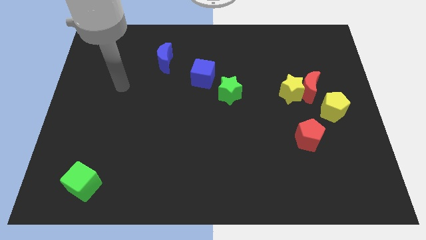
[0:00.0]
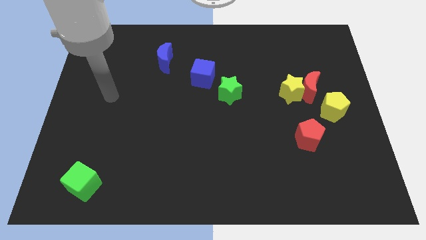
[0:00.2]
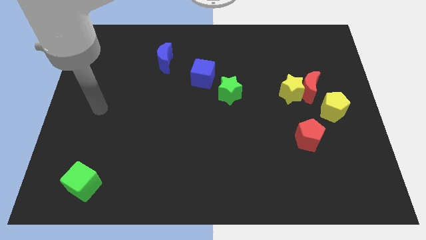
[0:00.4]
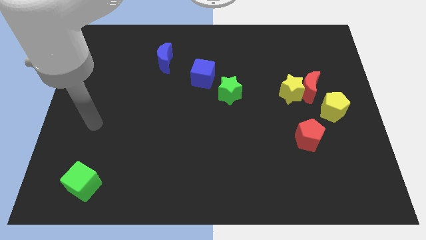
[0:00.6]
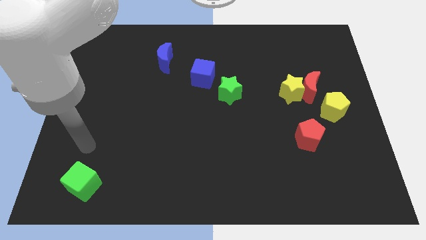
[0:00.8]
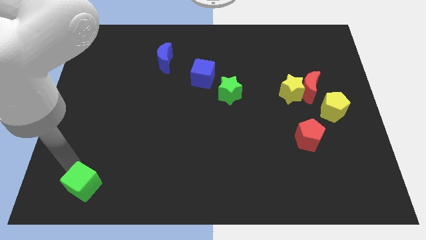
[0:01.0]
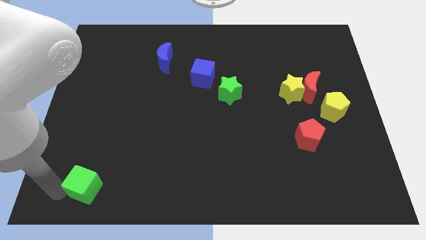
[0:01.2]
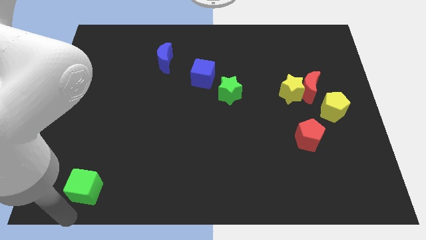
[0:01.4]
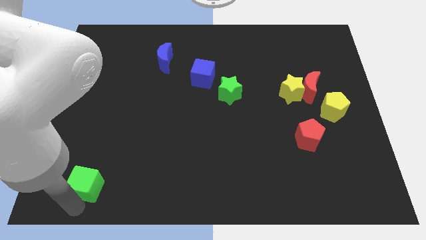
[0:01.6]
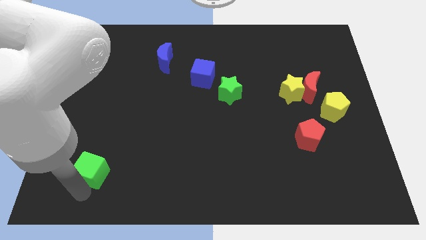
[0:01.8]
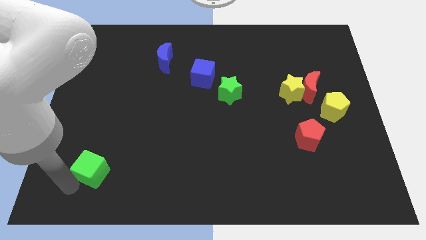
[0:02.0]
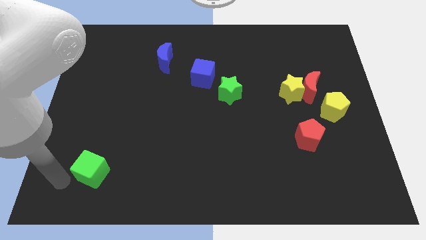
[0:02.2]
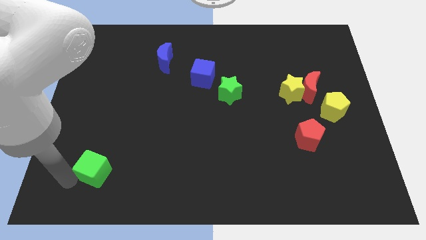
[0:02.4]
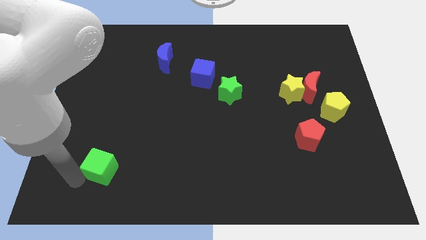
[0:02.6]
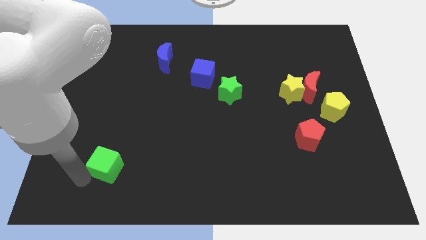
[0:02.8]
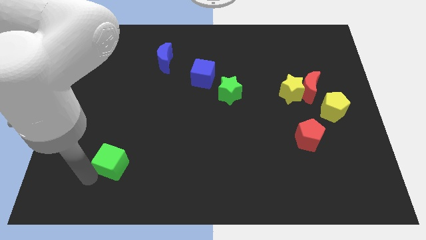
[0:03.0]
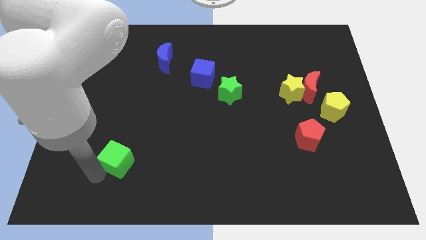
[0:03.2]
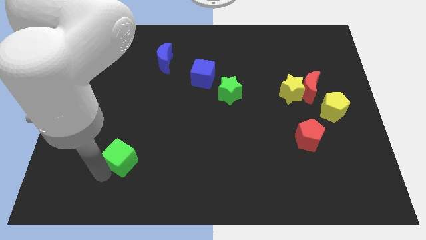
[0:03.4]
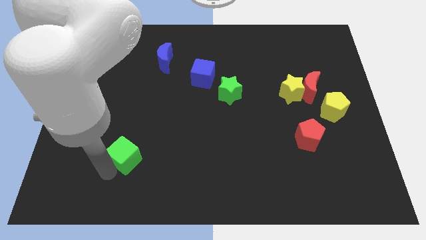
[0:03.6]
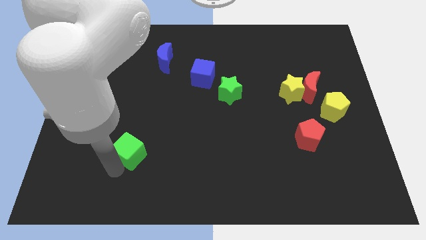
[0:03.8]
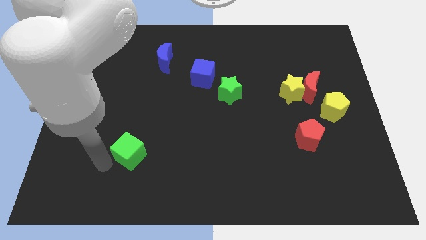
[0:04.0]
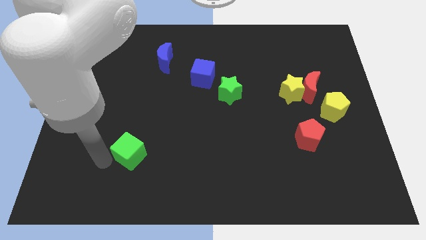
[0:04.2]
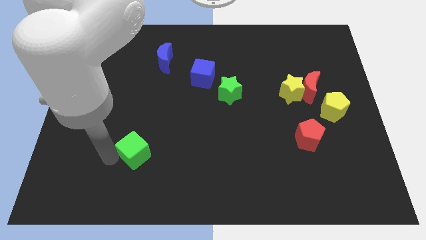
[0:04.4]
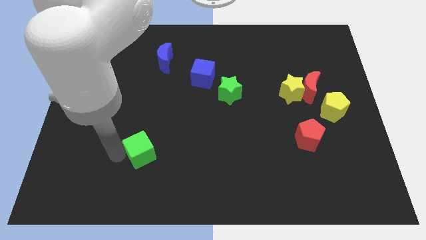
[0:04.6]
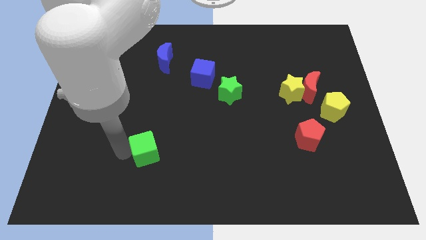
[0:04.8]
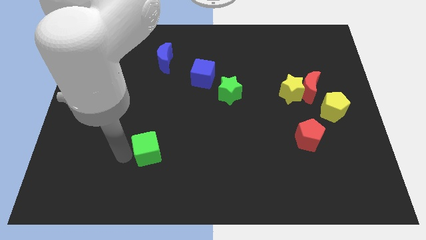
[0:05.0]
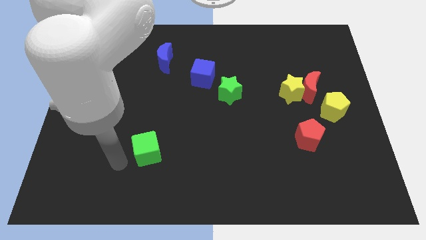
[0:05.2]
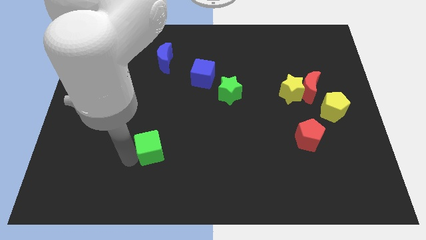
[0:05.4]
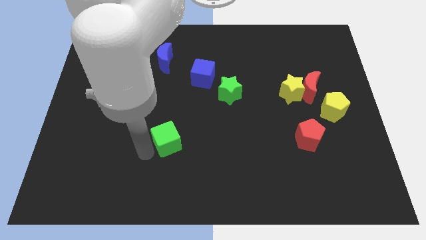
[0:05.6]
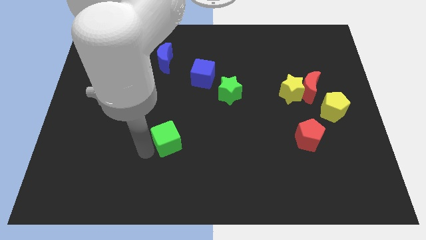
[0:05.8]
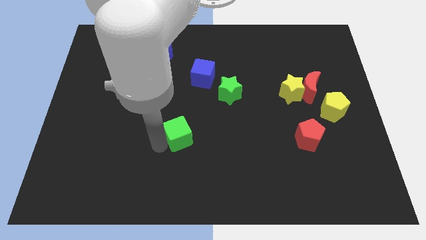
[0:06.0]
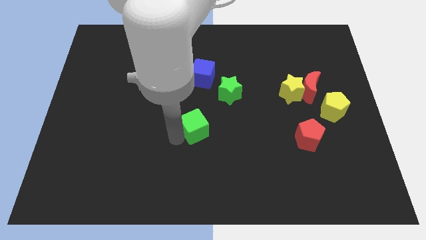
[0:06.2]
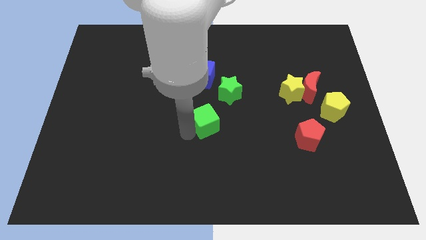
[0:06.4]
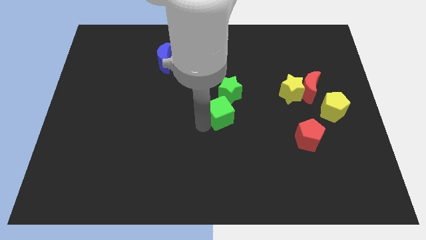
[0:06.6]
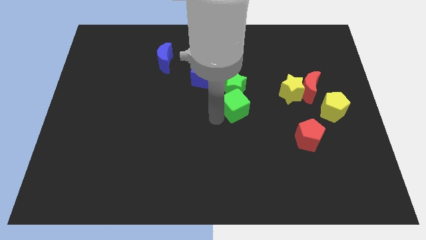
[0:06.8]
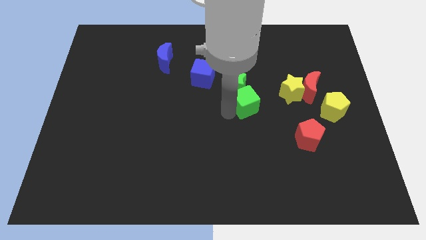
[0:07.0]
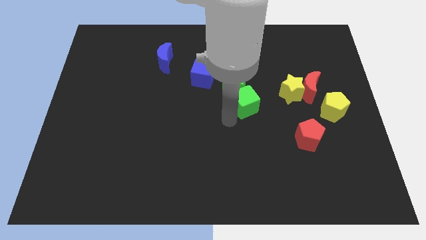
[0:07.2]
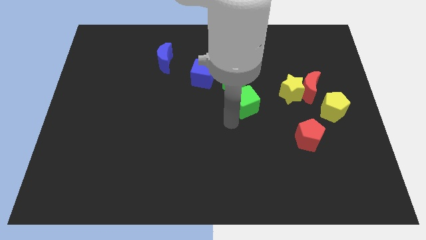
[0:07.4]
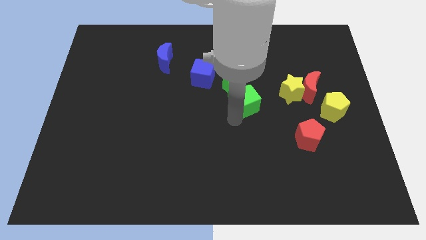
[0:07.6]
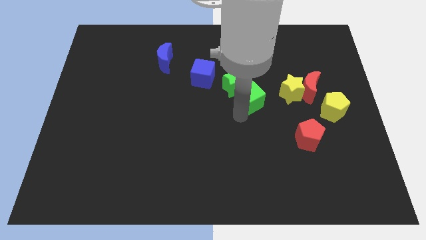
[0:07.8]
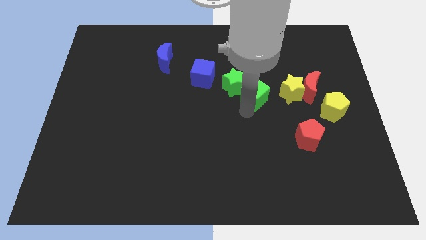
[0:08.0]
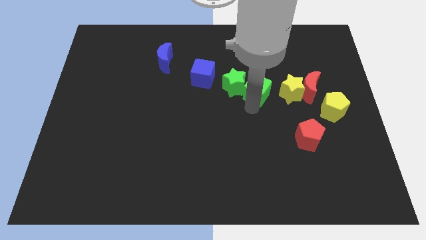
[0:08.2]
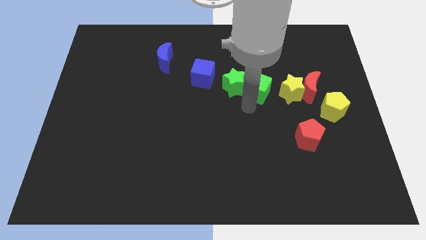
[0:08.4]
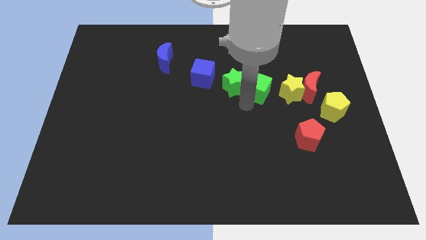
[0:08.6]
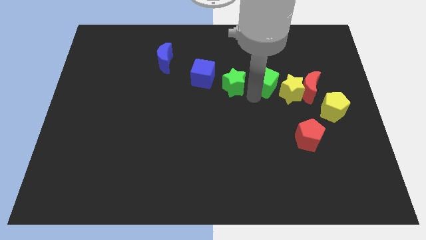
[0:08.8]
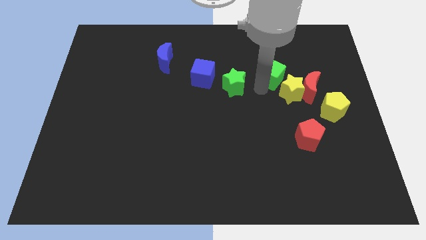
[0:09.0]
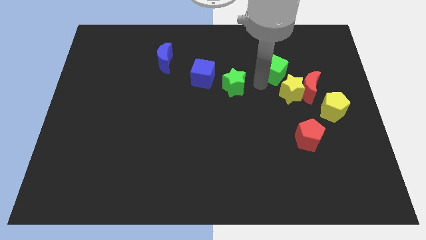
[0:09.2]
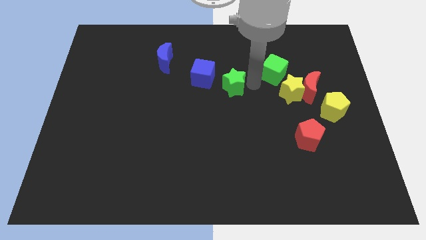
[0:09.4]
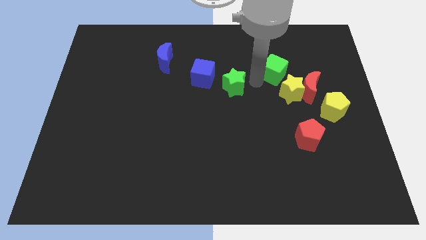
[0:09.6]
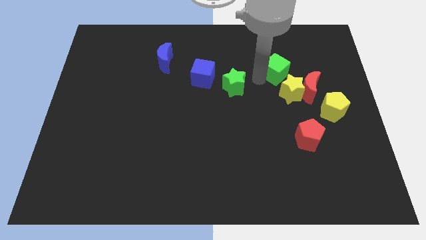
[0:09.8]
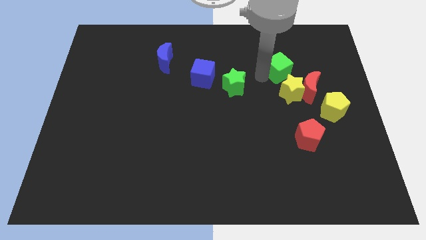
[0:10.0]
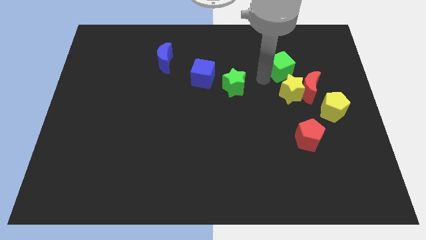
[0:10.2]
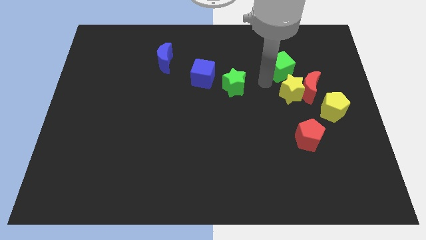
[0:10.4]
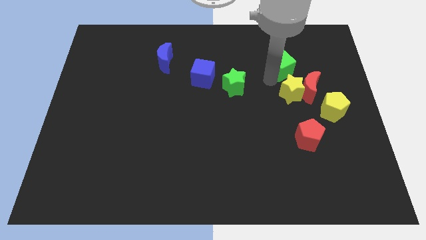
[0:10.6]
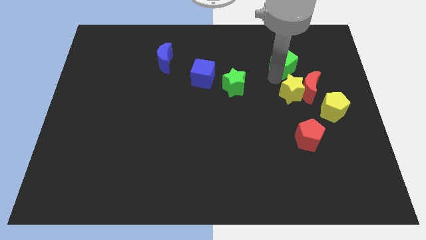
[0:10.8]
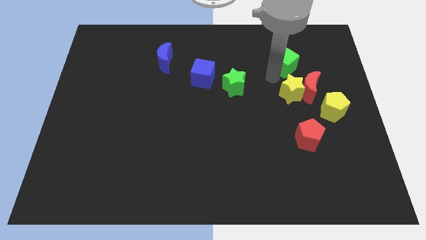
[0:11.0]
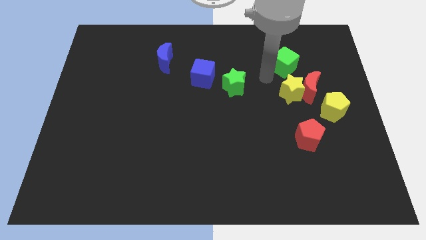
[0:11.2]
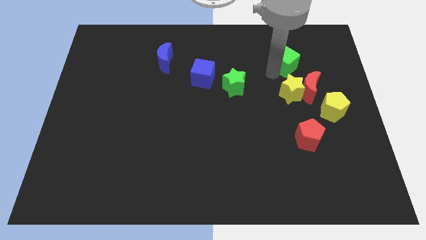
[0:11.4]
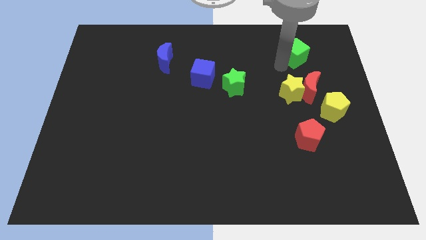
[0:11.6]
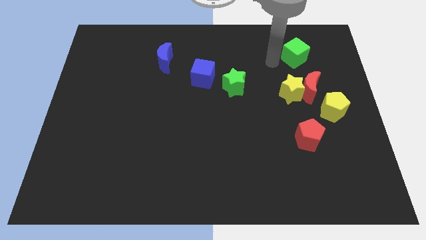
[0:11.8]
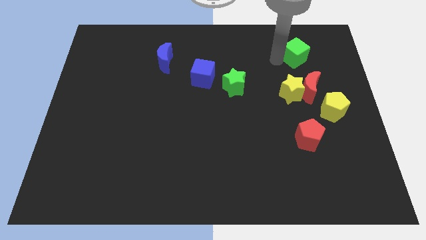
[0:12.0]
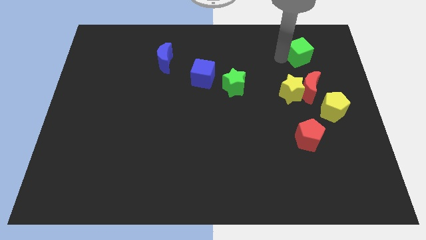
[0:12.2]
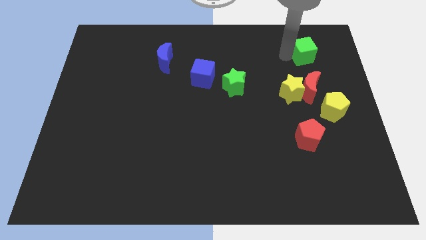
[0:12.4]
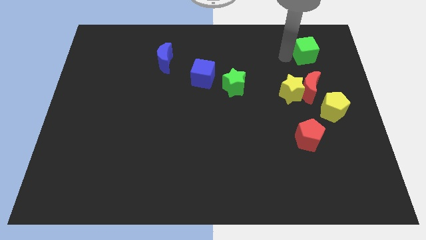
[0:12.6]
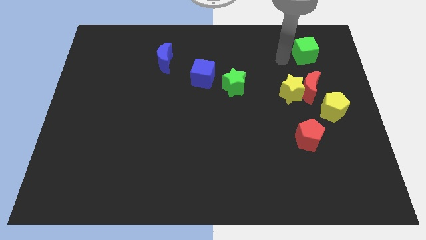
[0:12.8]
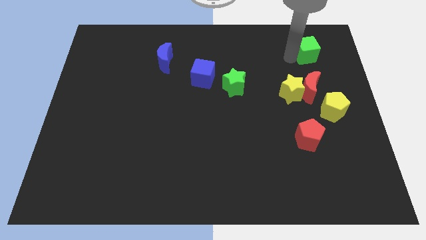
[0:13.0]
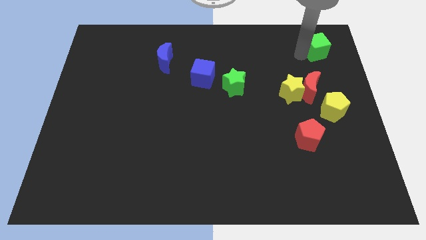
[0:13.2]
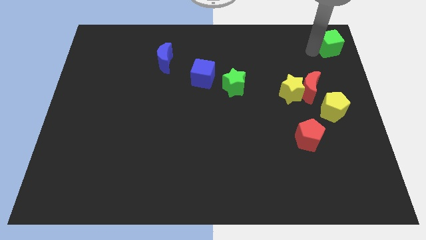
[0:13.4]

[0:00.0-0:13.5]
push the green cube to the upper right corner
